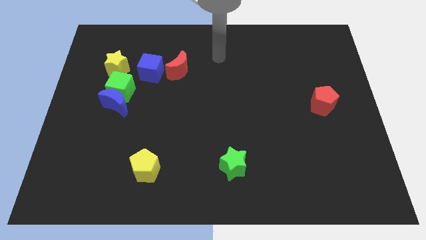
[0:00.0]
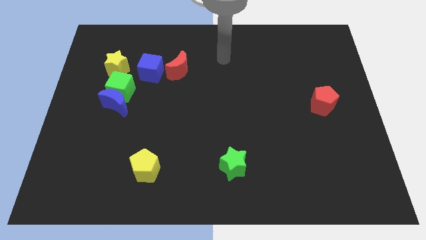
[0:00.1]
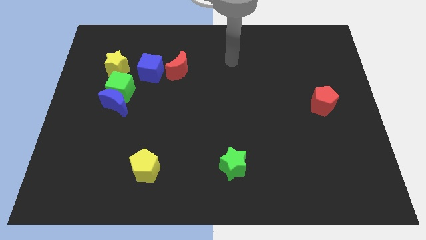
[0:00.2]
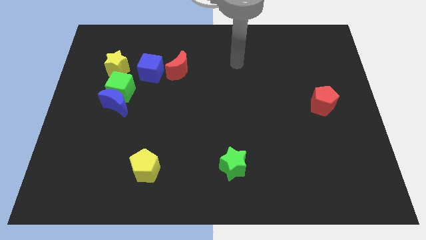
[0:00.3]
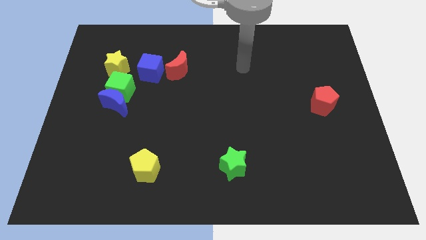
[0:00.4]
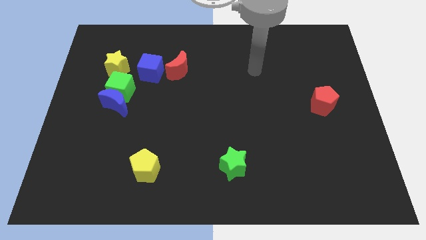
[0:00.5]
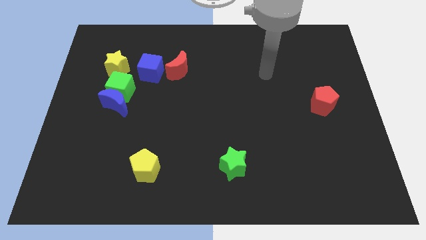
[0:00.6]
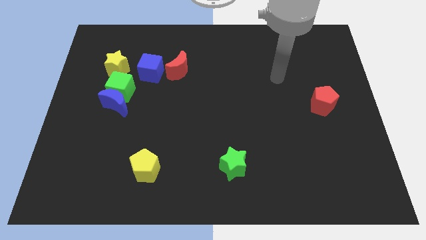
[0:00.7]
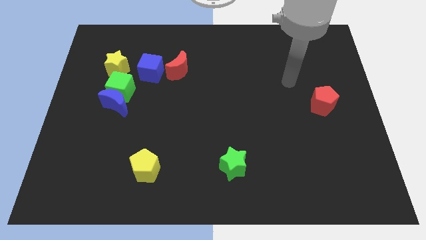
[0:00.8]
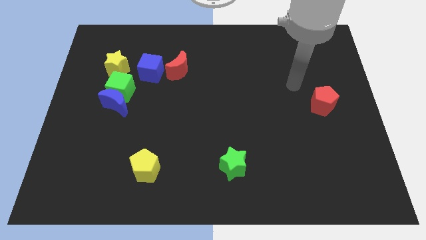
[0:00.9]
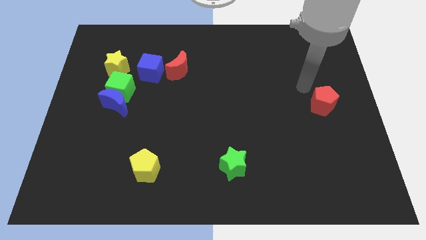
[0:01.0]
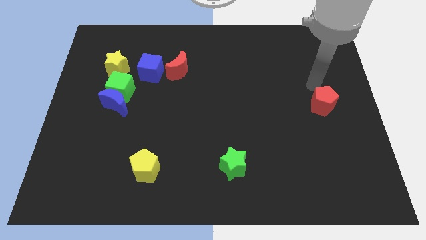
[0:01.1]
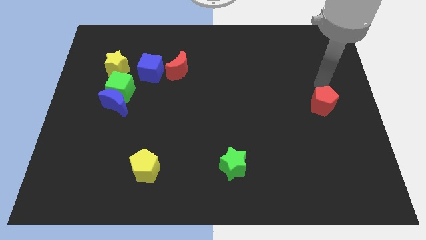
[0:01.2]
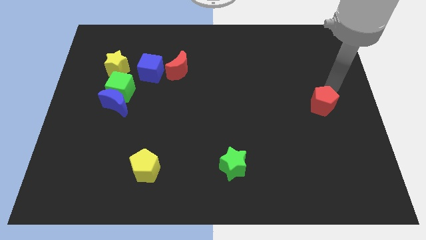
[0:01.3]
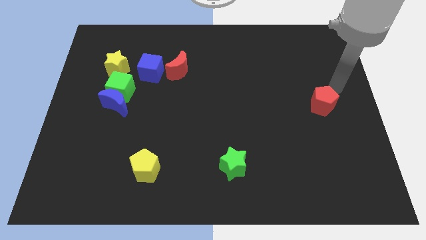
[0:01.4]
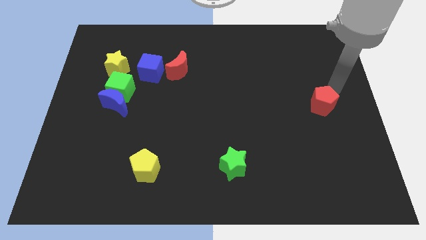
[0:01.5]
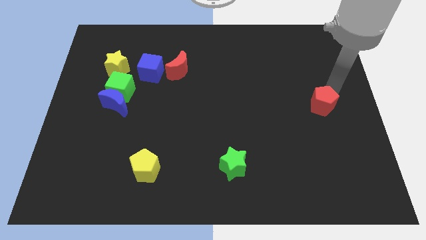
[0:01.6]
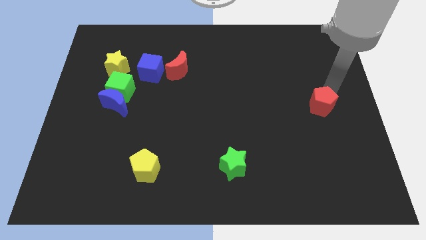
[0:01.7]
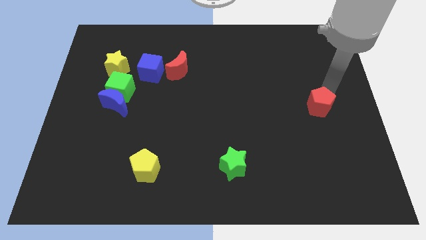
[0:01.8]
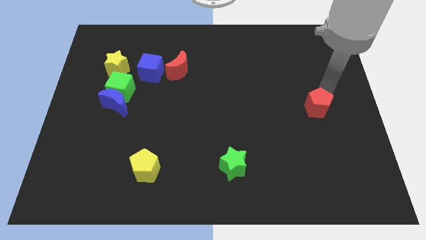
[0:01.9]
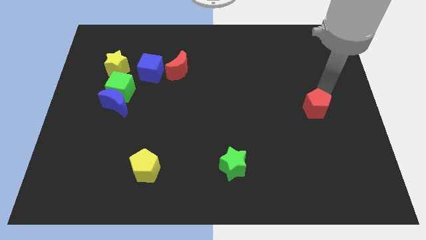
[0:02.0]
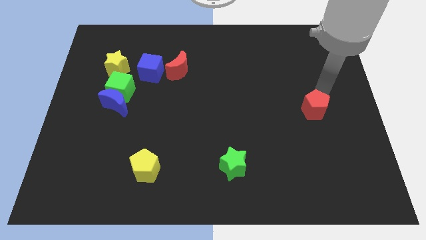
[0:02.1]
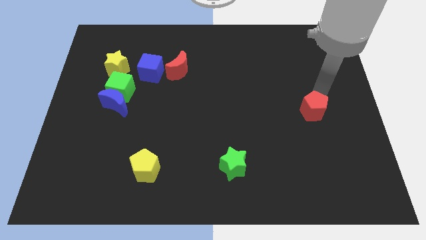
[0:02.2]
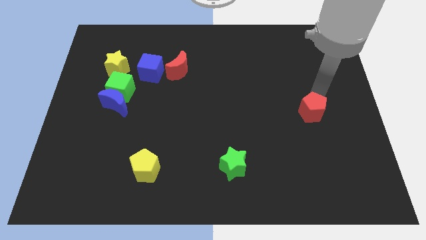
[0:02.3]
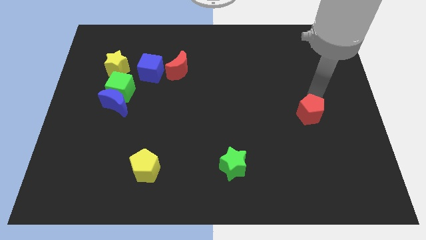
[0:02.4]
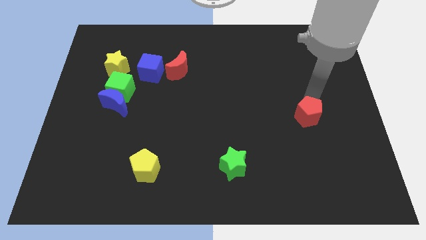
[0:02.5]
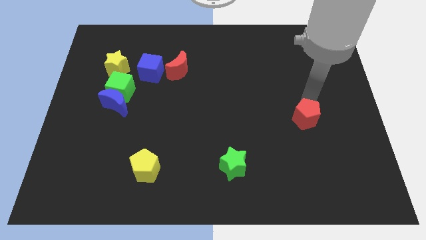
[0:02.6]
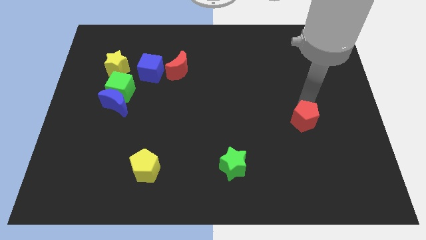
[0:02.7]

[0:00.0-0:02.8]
slightly move the red pentagon diagonally down and to the left

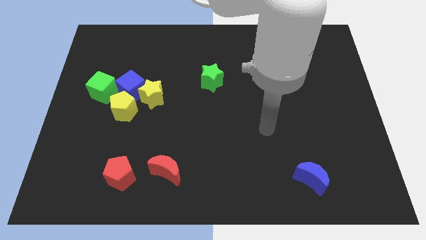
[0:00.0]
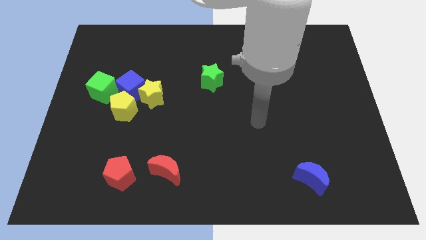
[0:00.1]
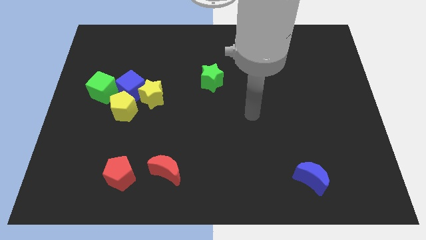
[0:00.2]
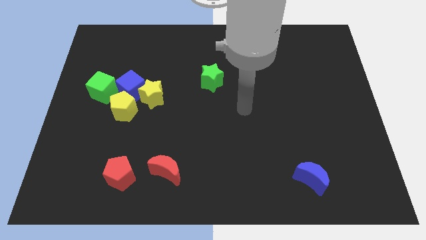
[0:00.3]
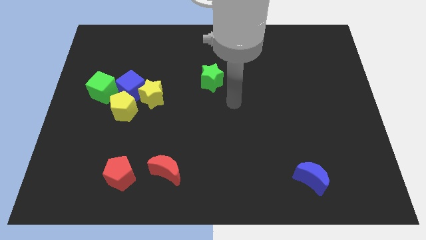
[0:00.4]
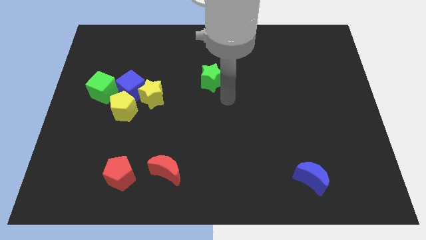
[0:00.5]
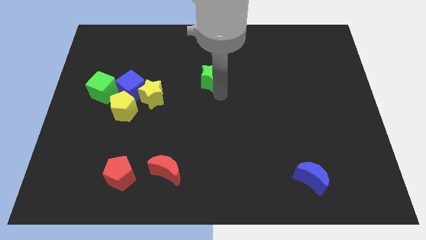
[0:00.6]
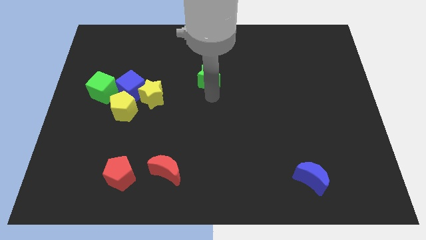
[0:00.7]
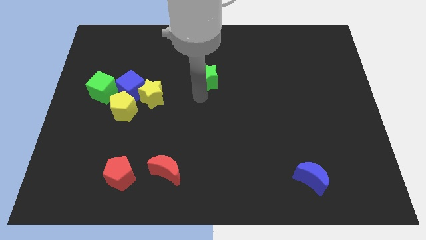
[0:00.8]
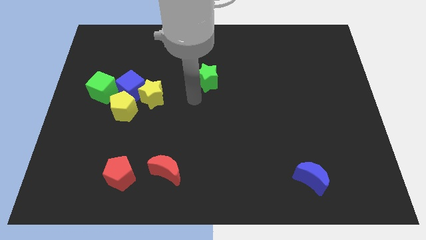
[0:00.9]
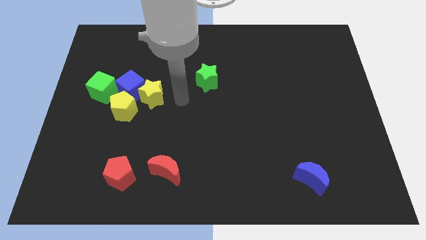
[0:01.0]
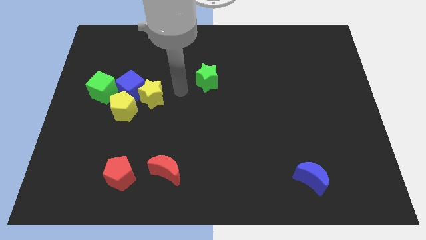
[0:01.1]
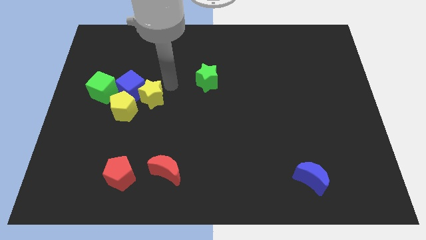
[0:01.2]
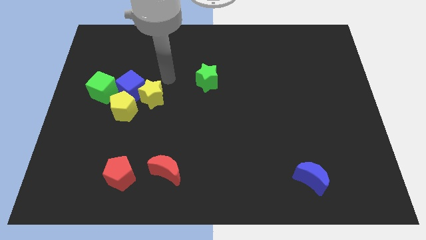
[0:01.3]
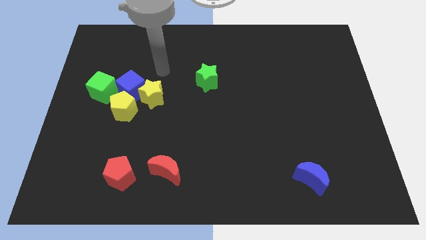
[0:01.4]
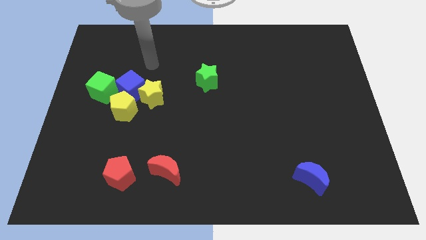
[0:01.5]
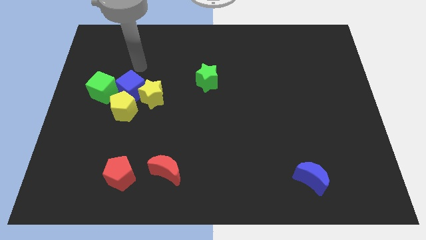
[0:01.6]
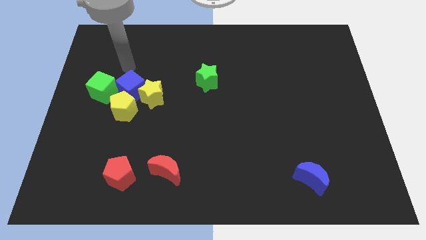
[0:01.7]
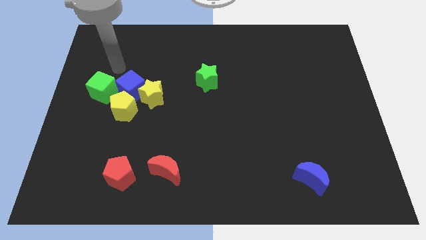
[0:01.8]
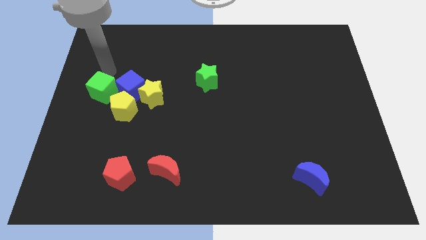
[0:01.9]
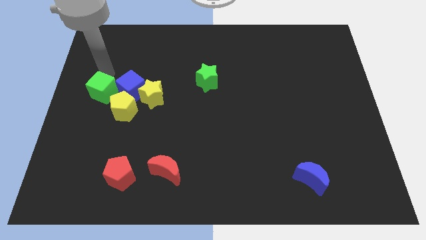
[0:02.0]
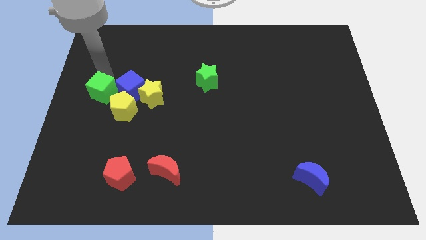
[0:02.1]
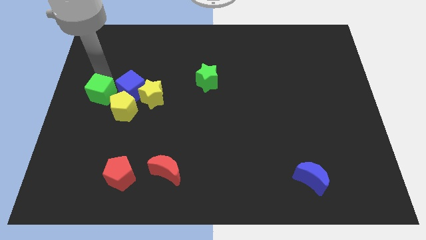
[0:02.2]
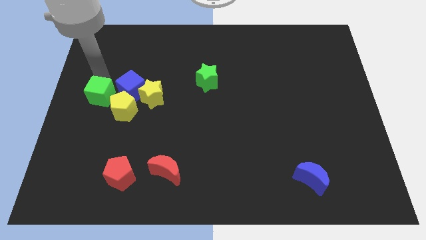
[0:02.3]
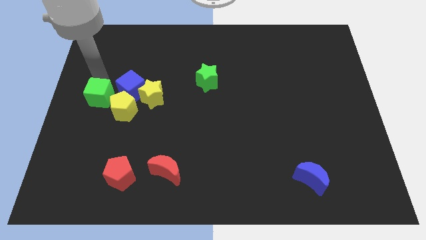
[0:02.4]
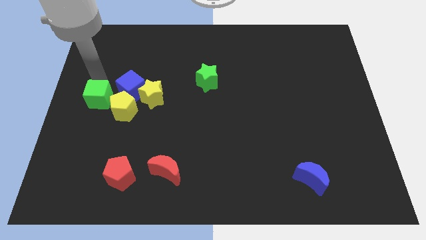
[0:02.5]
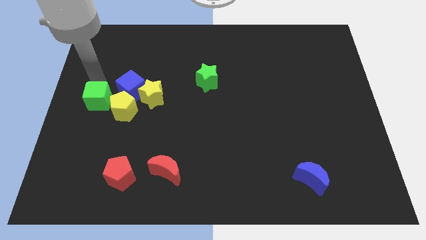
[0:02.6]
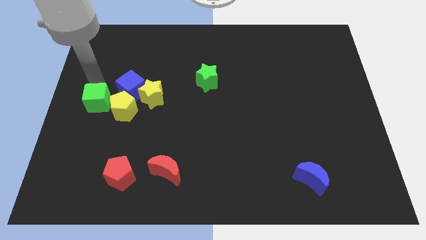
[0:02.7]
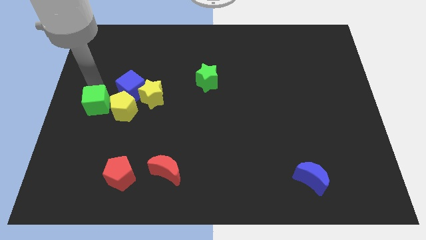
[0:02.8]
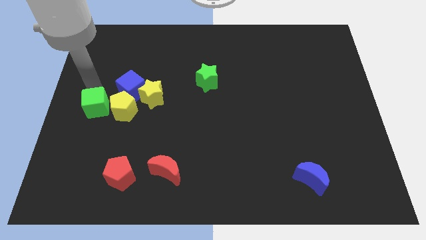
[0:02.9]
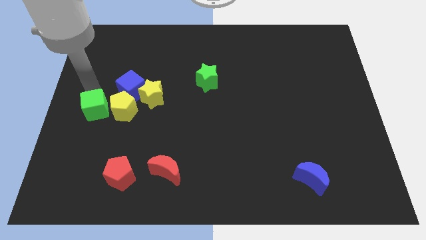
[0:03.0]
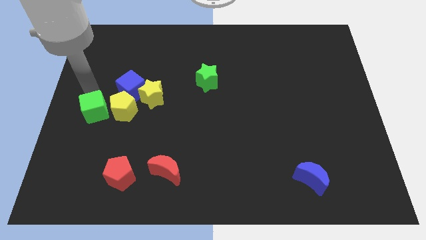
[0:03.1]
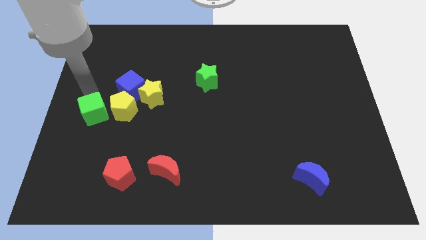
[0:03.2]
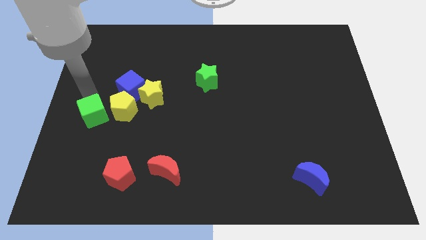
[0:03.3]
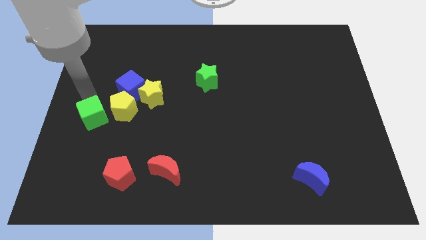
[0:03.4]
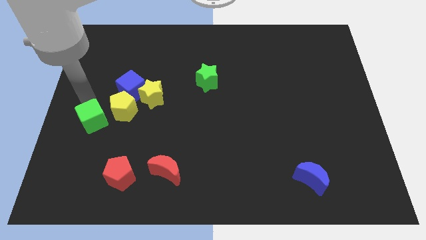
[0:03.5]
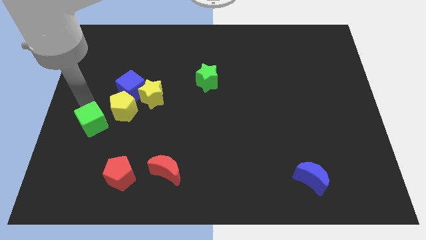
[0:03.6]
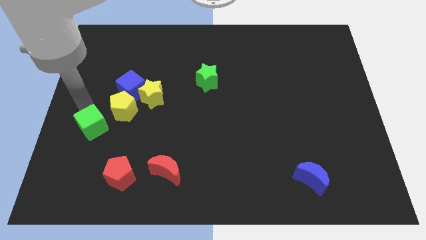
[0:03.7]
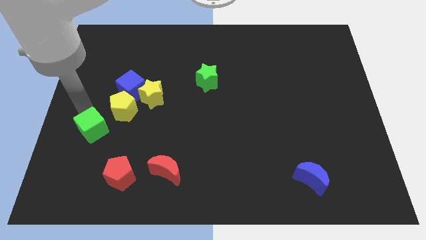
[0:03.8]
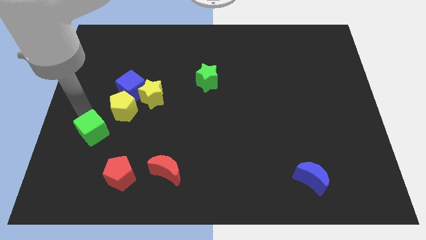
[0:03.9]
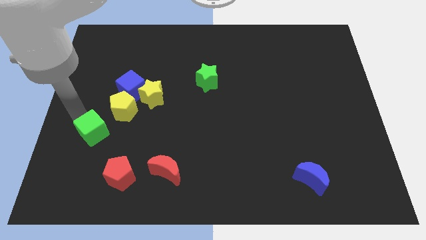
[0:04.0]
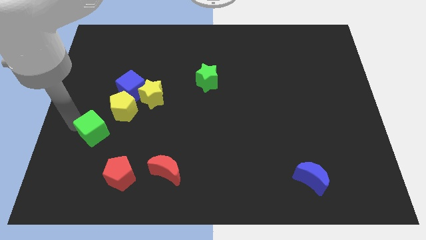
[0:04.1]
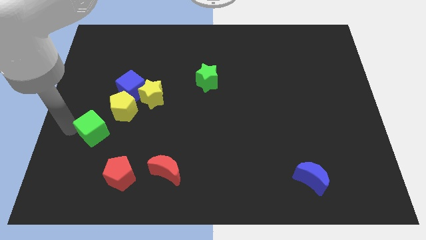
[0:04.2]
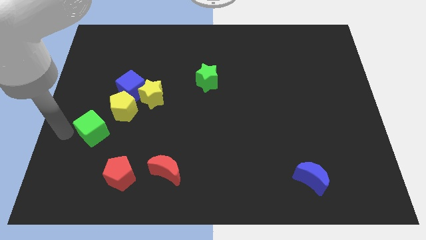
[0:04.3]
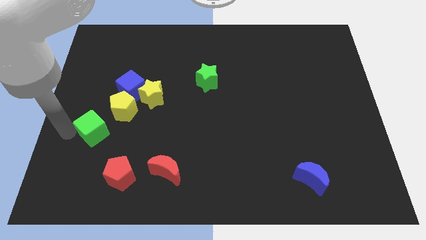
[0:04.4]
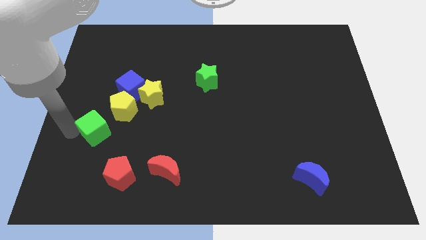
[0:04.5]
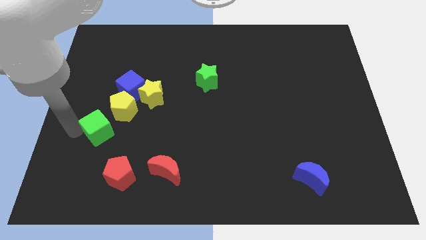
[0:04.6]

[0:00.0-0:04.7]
slide the green cube diagonally down and right a little

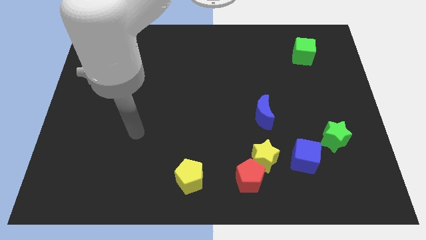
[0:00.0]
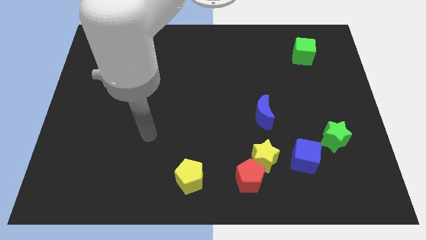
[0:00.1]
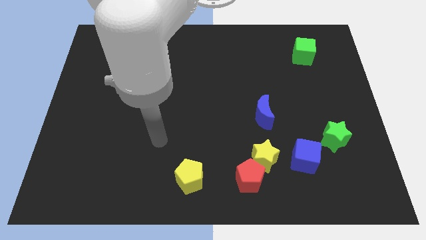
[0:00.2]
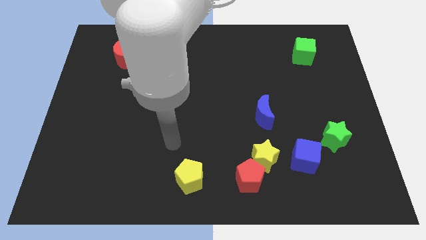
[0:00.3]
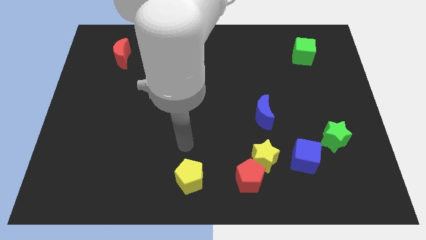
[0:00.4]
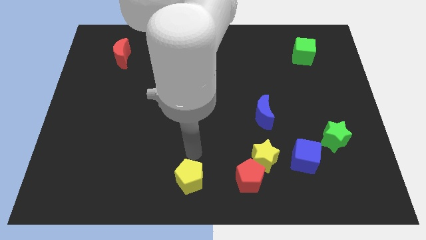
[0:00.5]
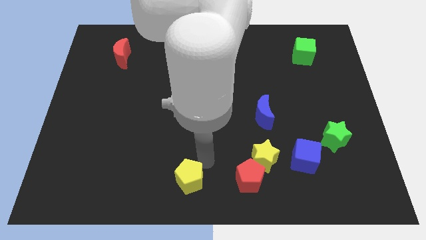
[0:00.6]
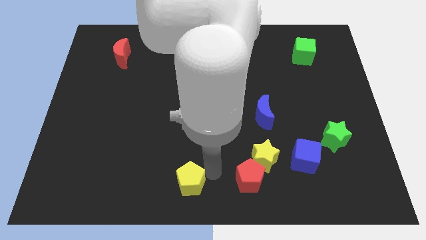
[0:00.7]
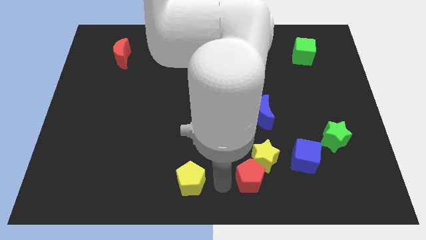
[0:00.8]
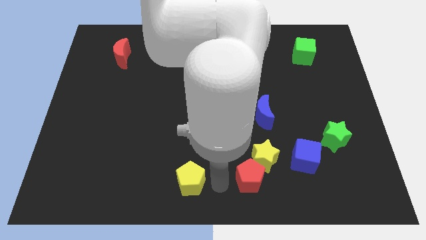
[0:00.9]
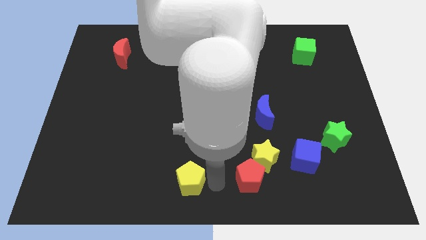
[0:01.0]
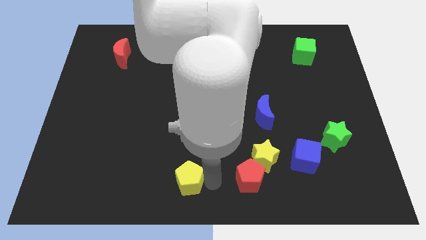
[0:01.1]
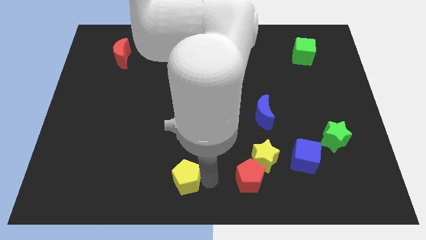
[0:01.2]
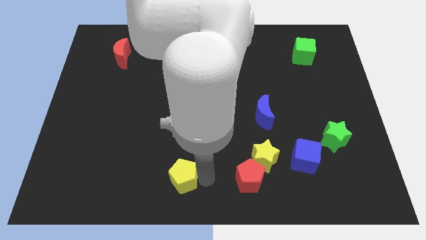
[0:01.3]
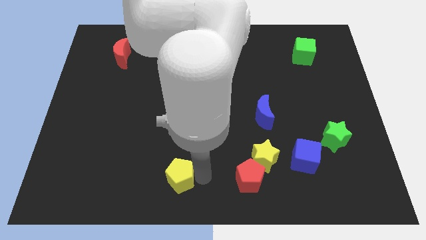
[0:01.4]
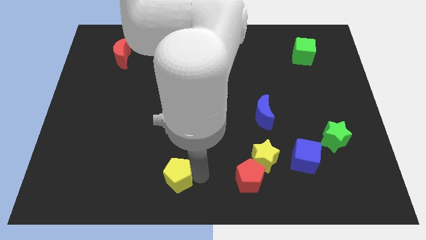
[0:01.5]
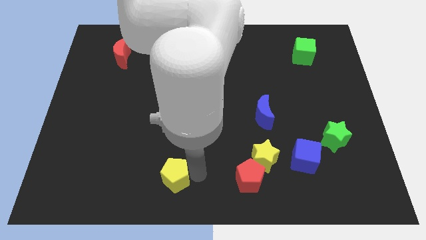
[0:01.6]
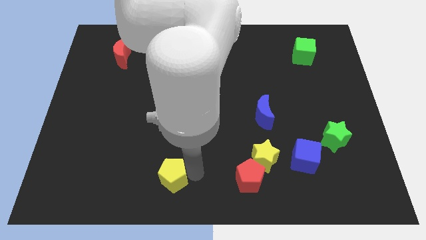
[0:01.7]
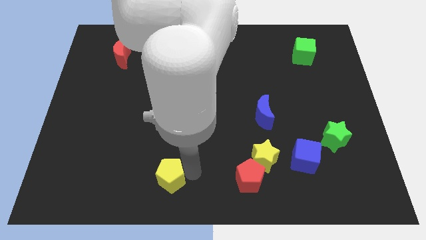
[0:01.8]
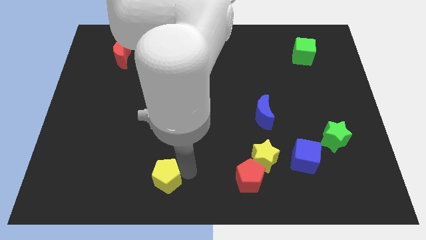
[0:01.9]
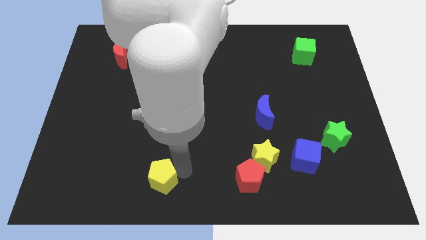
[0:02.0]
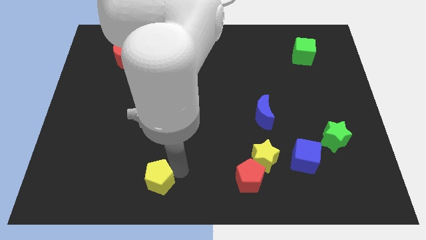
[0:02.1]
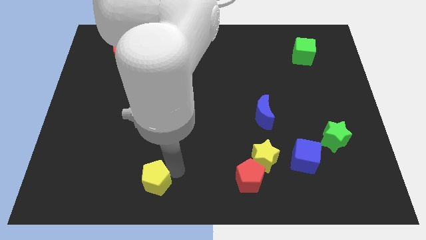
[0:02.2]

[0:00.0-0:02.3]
slightly slide the yellow pentagon left
